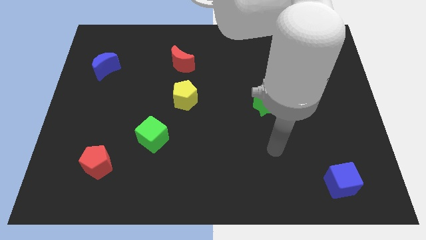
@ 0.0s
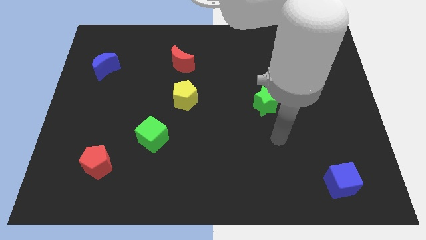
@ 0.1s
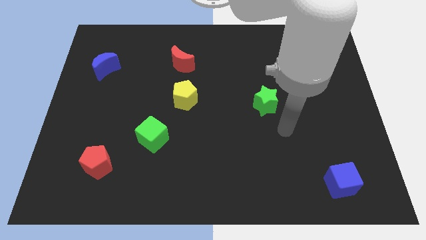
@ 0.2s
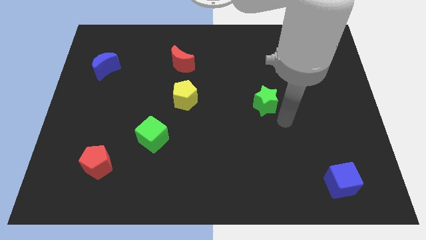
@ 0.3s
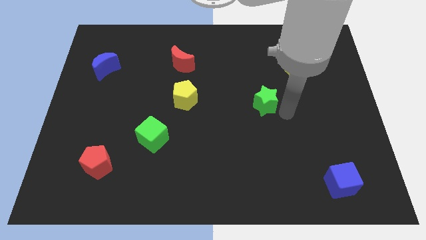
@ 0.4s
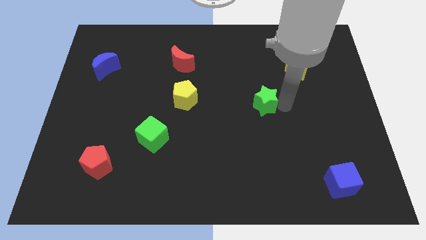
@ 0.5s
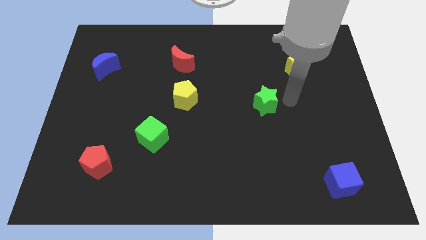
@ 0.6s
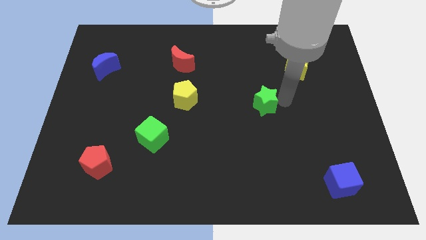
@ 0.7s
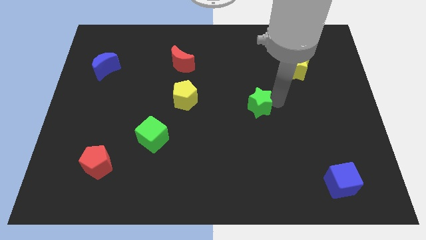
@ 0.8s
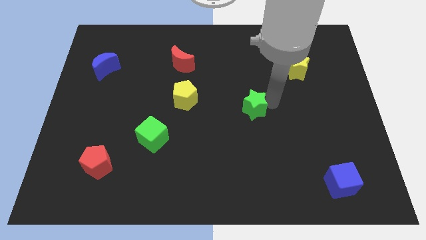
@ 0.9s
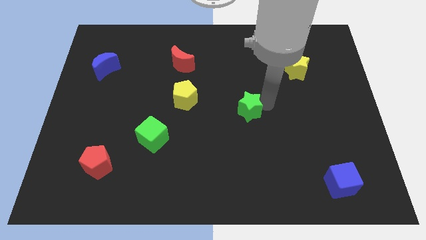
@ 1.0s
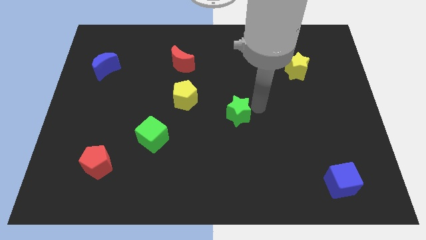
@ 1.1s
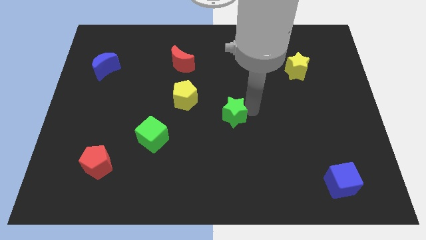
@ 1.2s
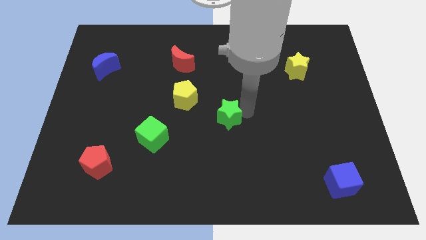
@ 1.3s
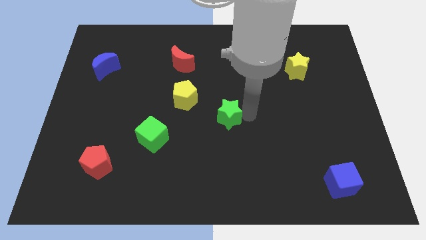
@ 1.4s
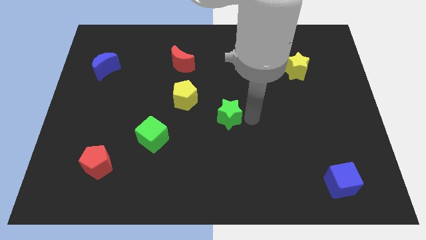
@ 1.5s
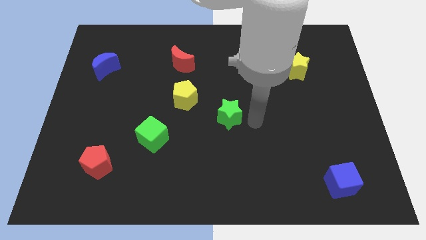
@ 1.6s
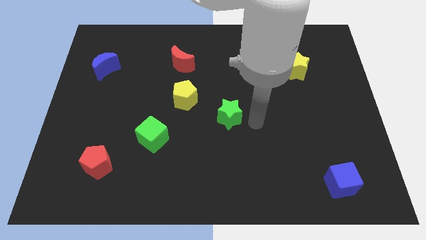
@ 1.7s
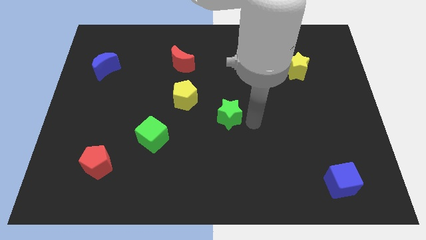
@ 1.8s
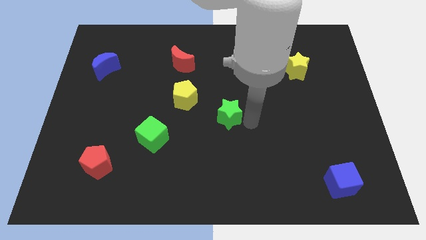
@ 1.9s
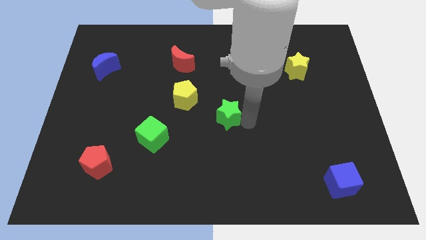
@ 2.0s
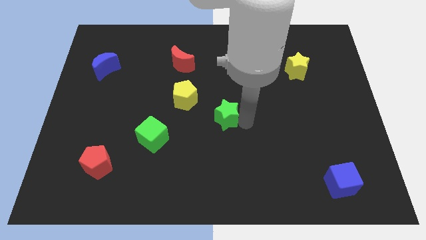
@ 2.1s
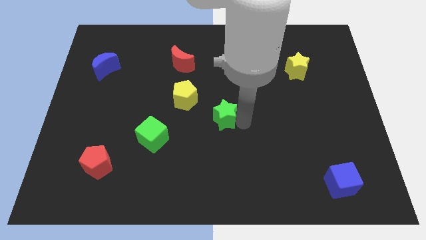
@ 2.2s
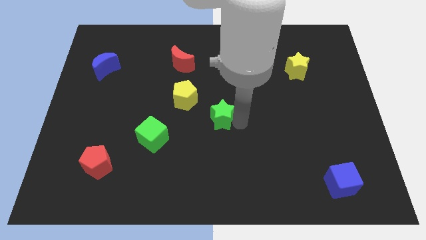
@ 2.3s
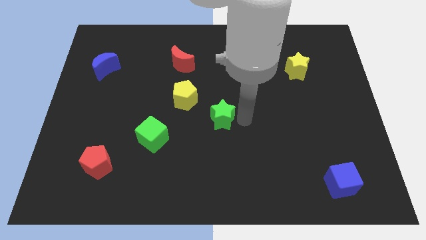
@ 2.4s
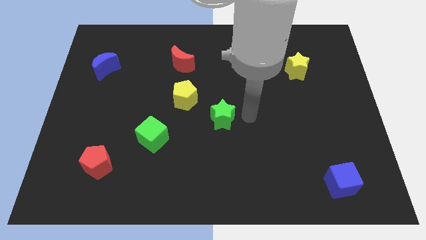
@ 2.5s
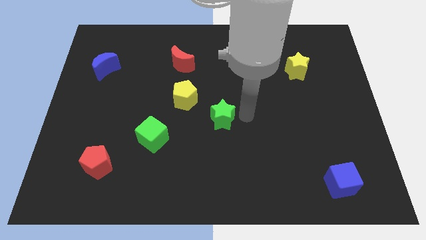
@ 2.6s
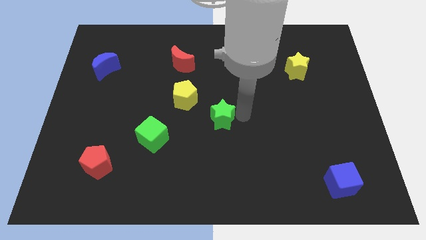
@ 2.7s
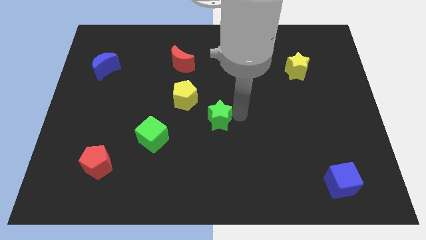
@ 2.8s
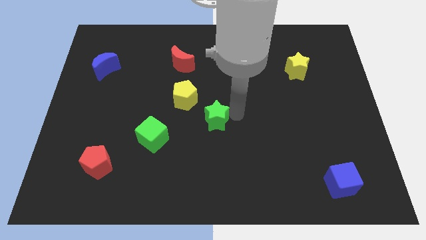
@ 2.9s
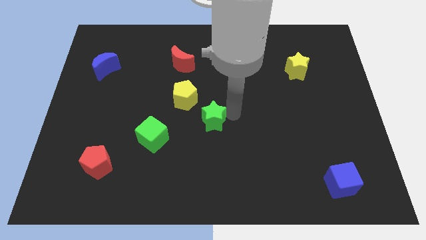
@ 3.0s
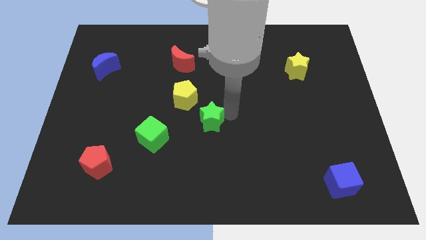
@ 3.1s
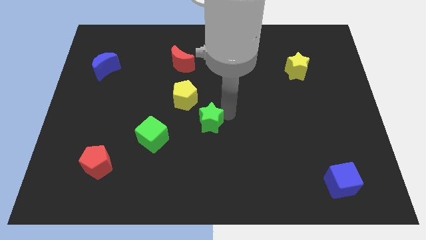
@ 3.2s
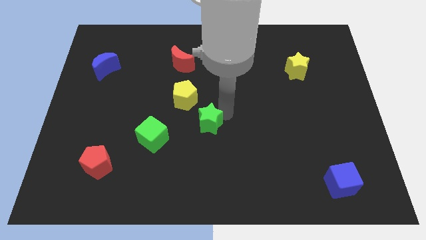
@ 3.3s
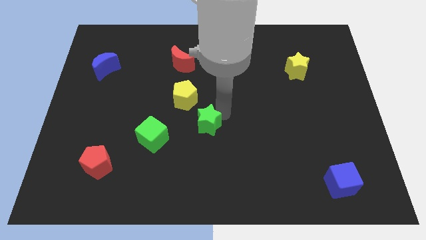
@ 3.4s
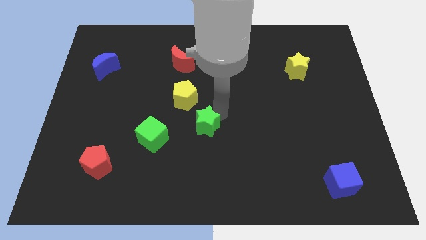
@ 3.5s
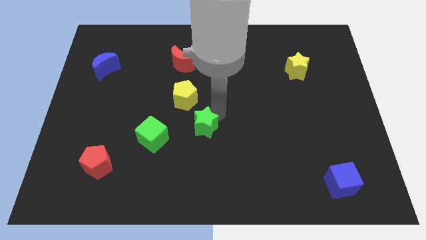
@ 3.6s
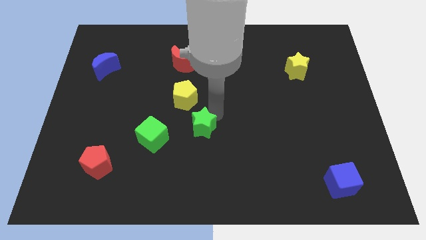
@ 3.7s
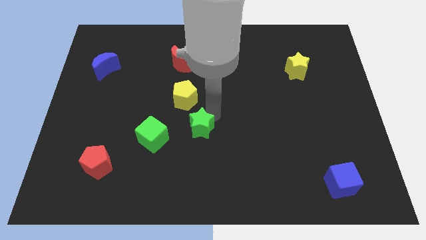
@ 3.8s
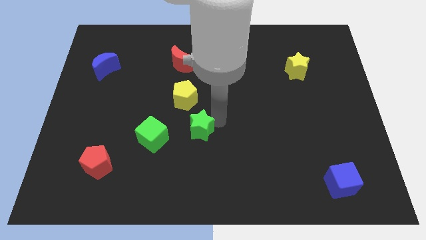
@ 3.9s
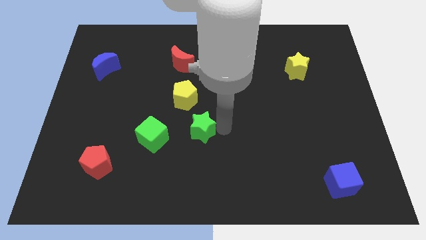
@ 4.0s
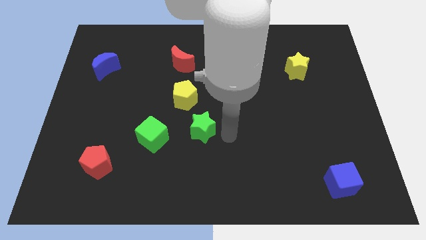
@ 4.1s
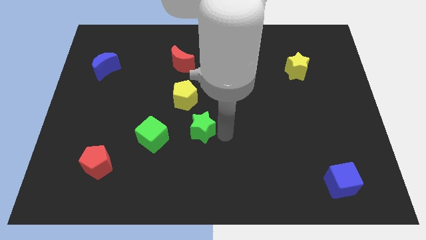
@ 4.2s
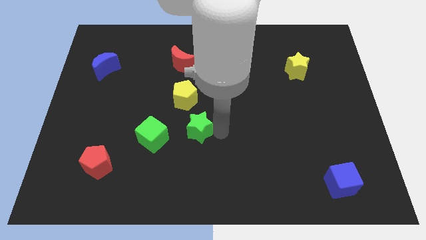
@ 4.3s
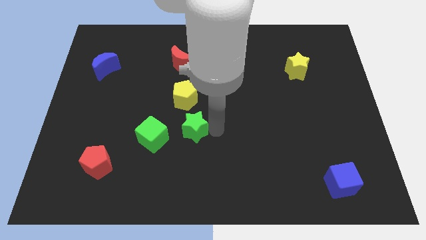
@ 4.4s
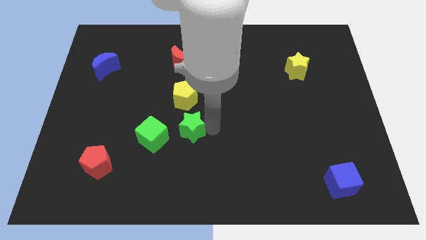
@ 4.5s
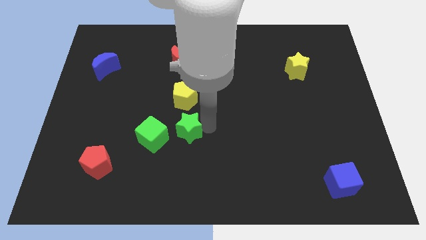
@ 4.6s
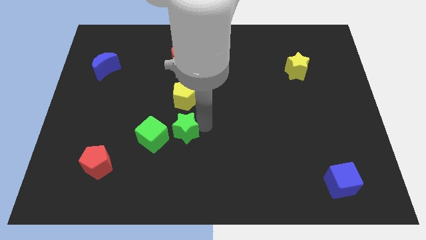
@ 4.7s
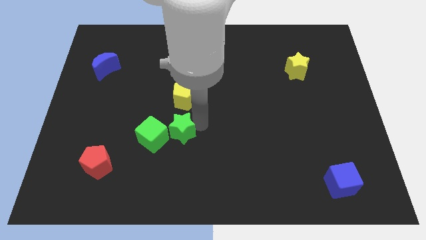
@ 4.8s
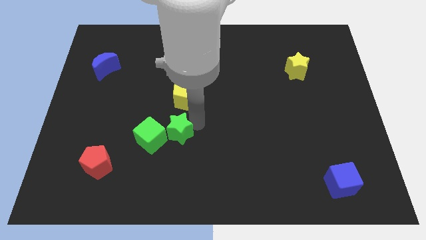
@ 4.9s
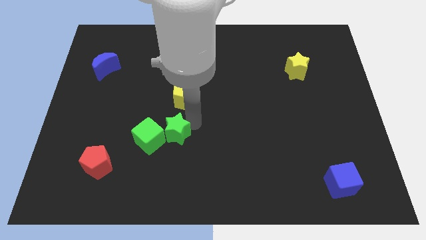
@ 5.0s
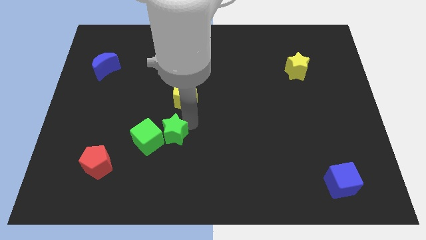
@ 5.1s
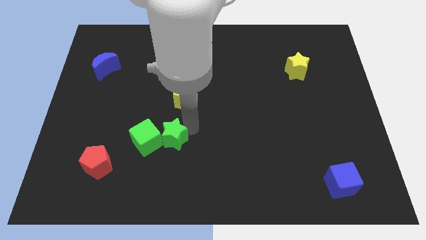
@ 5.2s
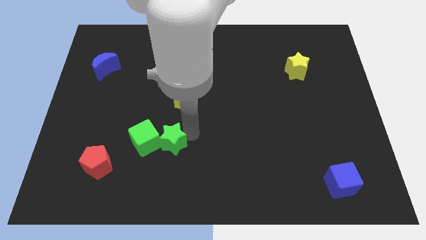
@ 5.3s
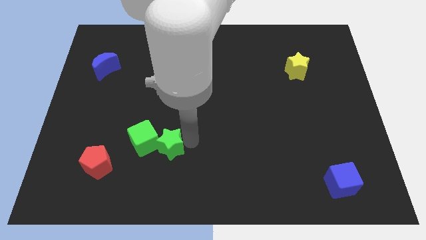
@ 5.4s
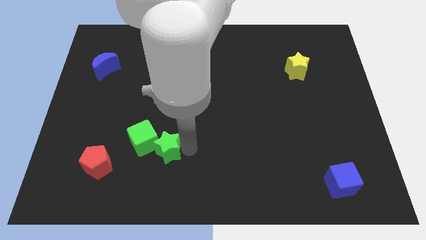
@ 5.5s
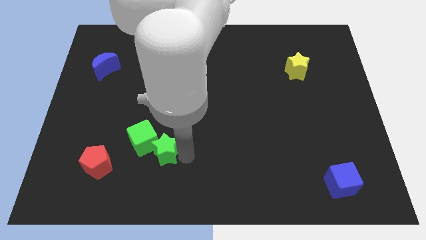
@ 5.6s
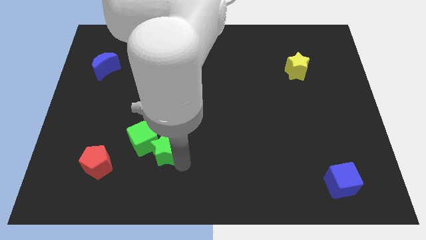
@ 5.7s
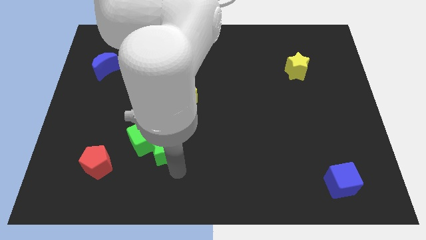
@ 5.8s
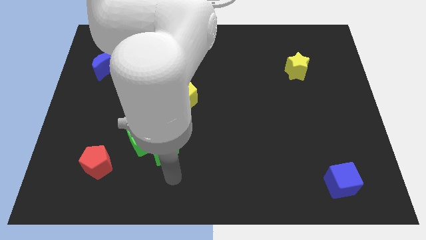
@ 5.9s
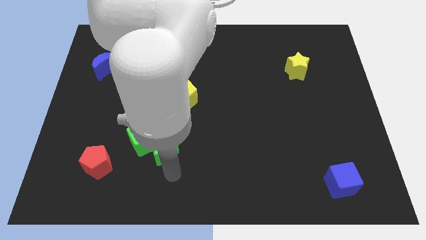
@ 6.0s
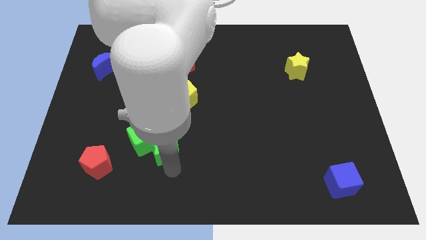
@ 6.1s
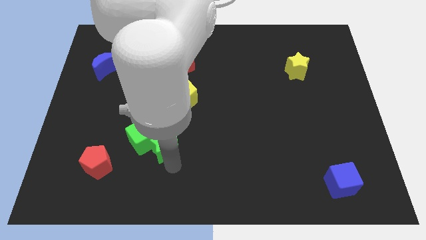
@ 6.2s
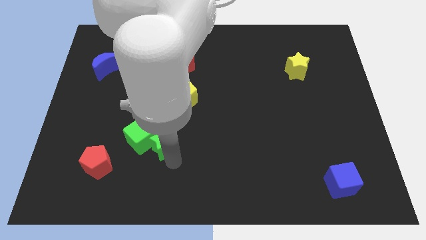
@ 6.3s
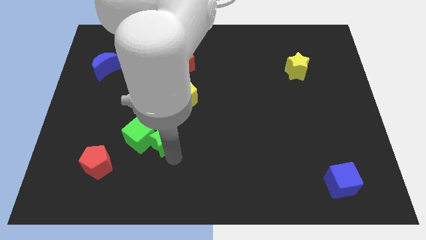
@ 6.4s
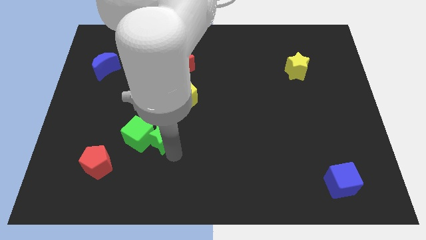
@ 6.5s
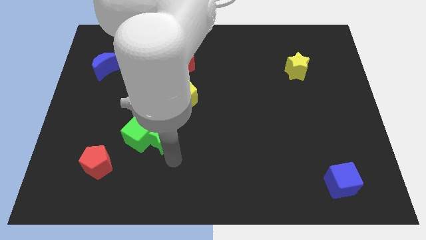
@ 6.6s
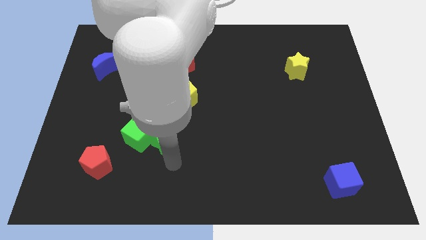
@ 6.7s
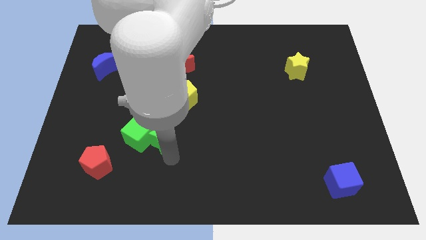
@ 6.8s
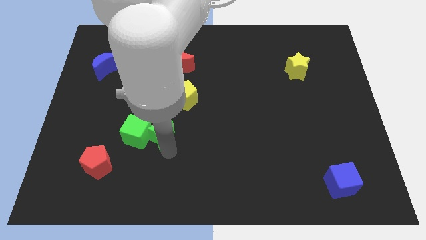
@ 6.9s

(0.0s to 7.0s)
slide the green star to the left

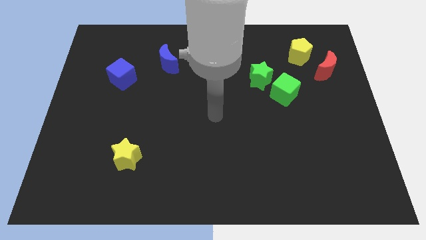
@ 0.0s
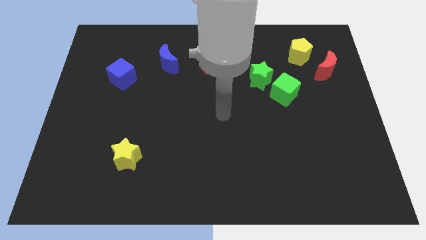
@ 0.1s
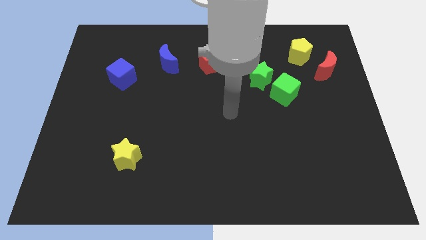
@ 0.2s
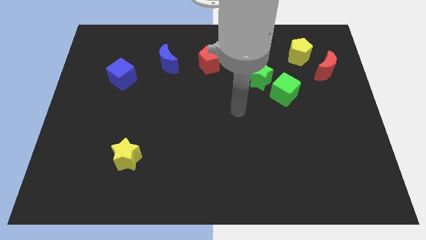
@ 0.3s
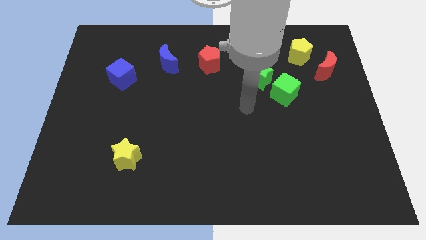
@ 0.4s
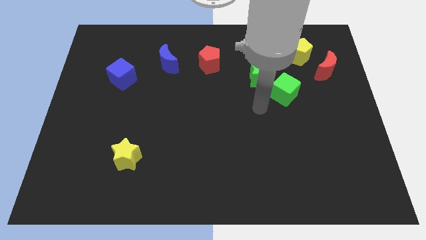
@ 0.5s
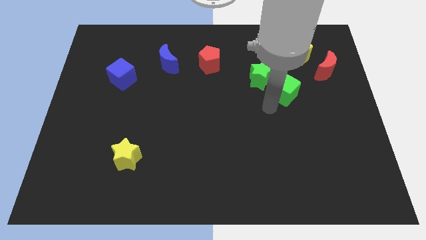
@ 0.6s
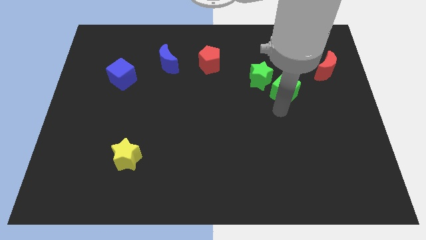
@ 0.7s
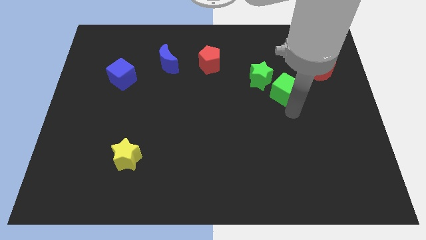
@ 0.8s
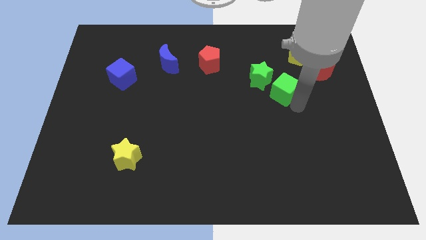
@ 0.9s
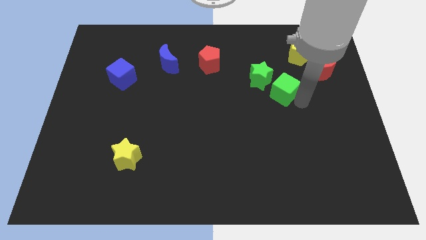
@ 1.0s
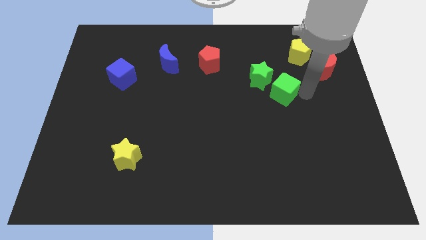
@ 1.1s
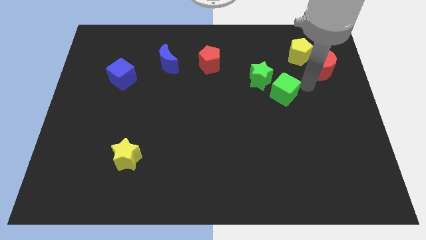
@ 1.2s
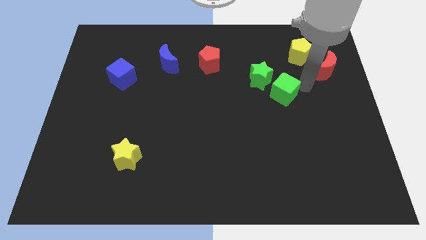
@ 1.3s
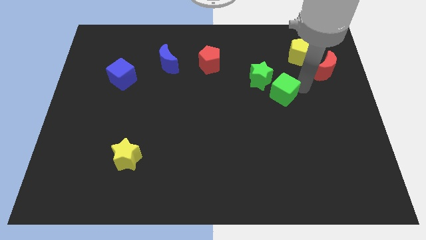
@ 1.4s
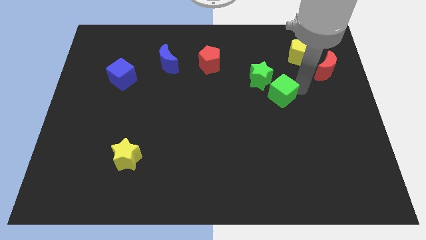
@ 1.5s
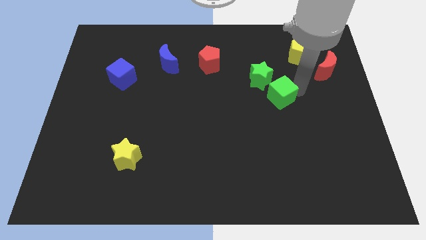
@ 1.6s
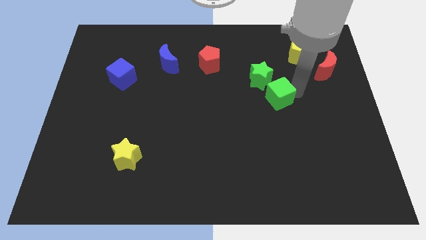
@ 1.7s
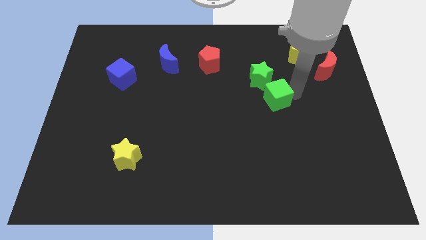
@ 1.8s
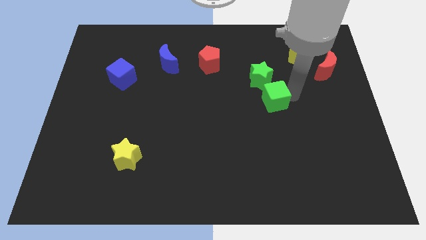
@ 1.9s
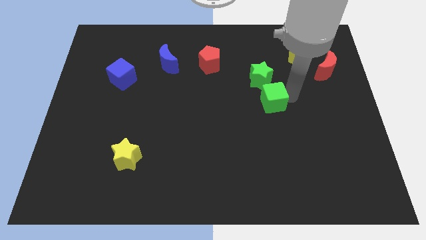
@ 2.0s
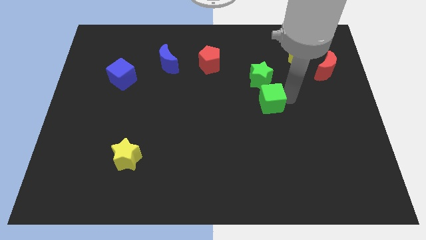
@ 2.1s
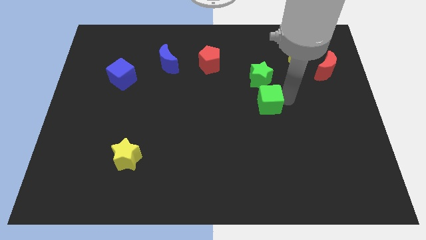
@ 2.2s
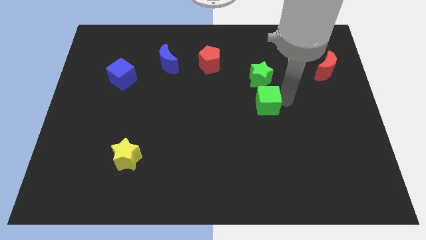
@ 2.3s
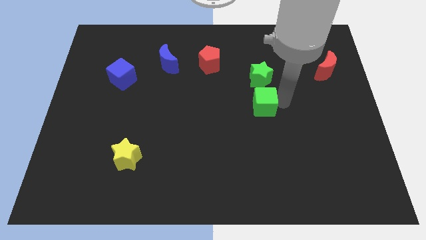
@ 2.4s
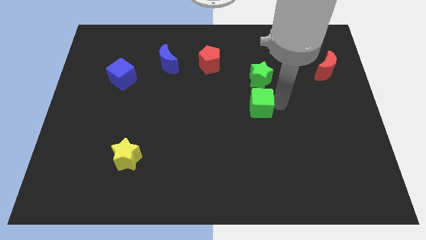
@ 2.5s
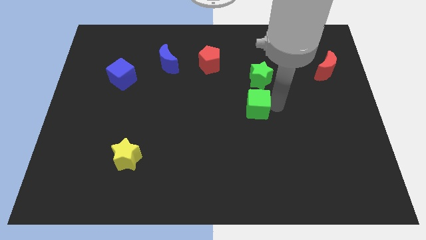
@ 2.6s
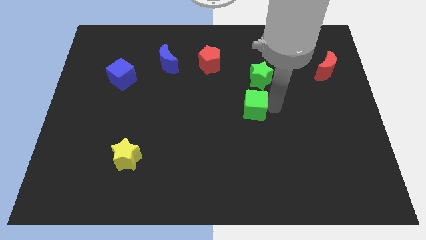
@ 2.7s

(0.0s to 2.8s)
slightly slide the green cube left
